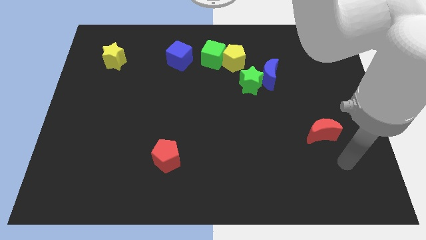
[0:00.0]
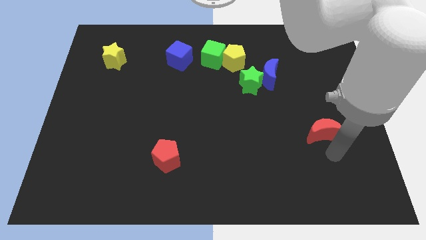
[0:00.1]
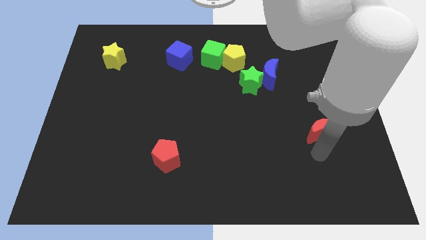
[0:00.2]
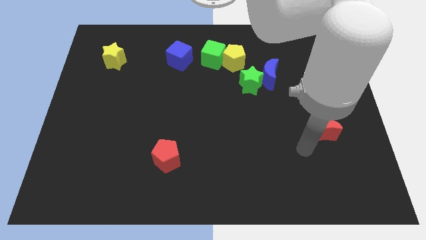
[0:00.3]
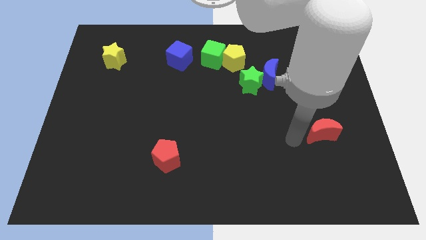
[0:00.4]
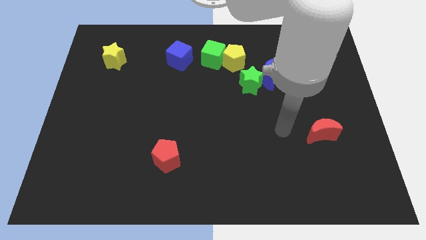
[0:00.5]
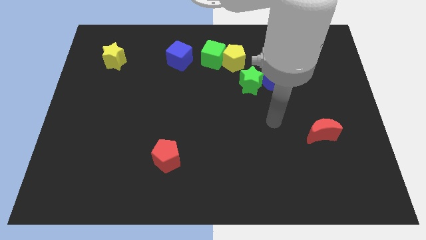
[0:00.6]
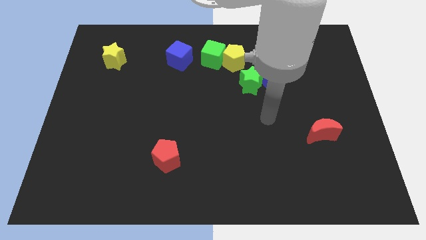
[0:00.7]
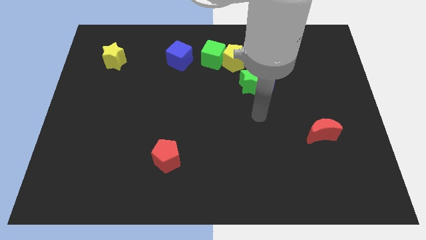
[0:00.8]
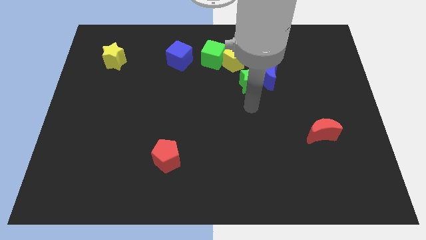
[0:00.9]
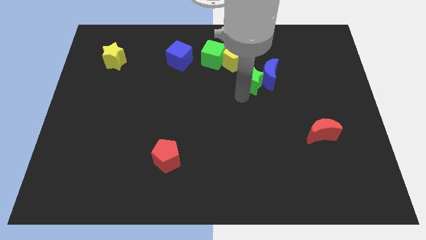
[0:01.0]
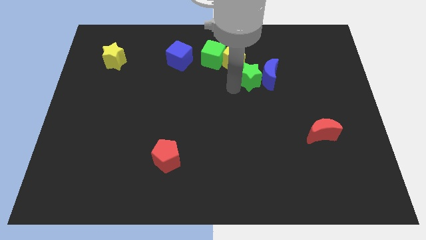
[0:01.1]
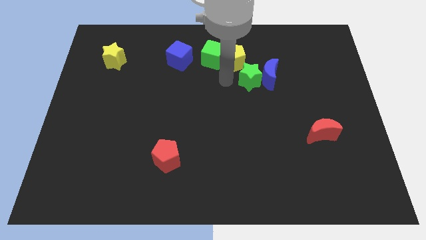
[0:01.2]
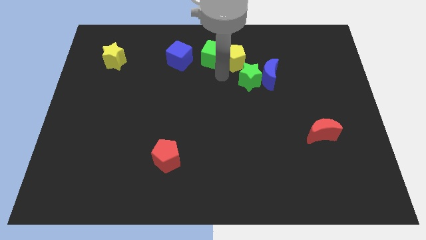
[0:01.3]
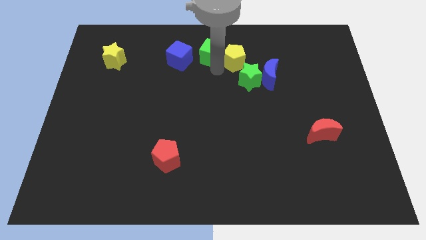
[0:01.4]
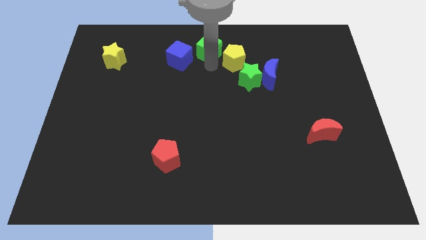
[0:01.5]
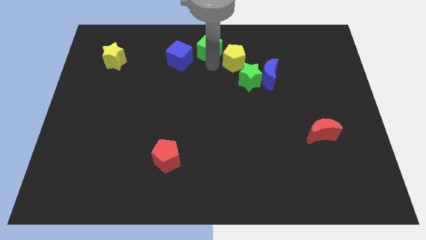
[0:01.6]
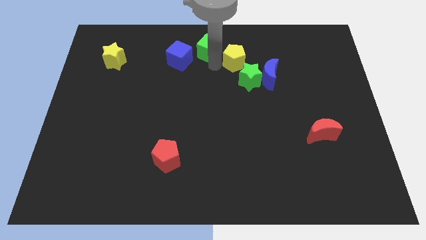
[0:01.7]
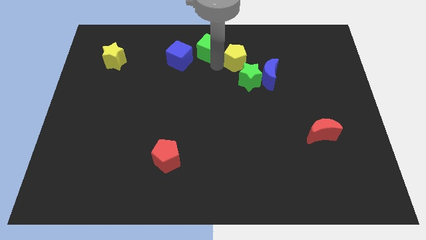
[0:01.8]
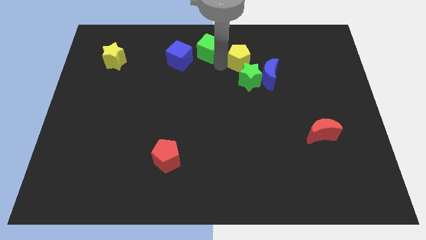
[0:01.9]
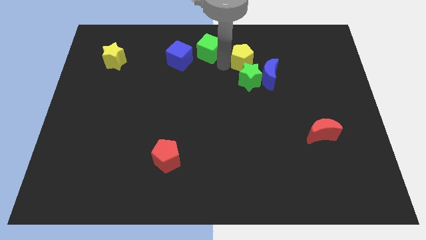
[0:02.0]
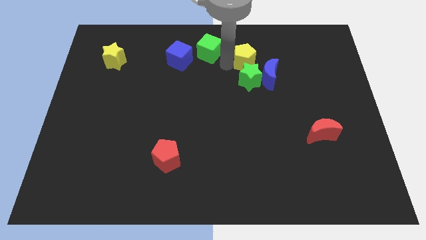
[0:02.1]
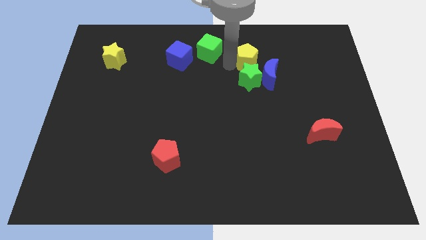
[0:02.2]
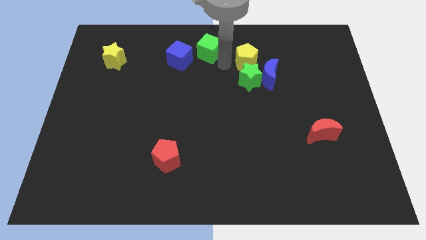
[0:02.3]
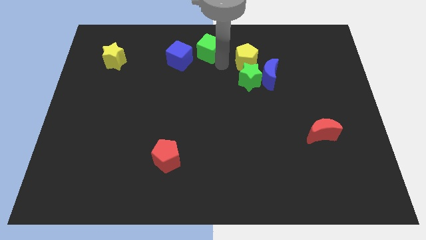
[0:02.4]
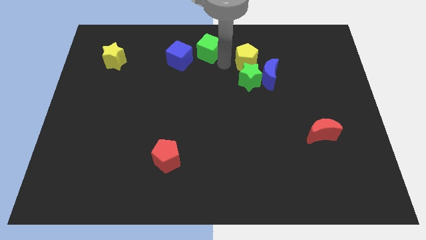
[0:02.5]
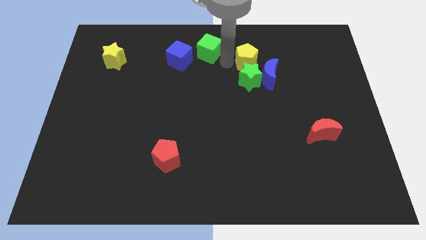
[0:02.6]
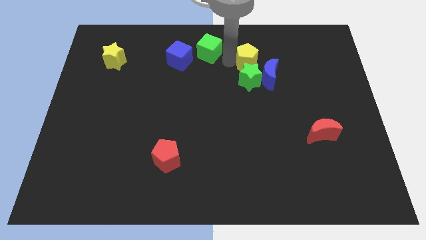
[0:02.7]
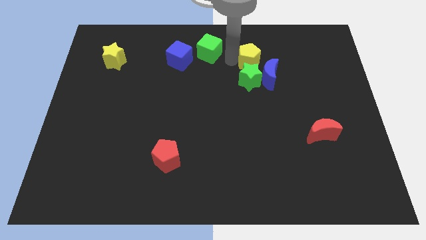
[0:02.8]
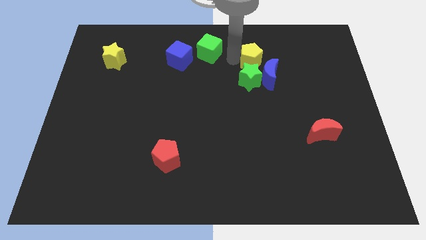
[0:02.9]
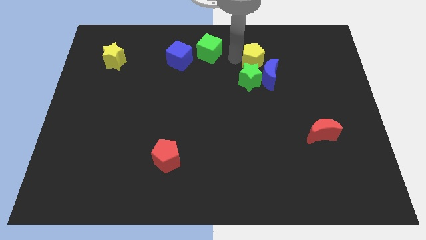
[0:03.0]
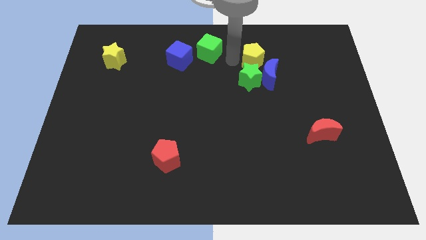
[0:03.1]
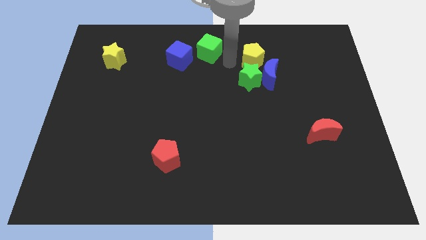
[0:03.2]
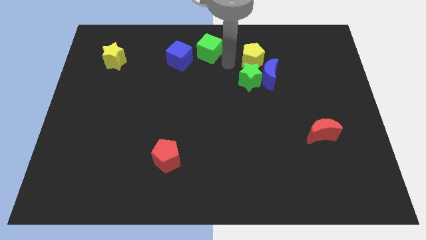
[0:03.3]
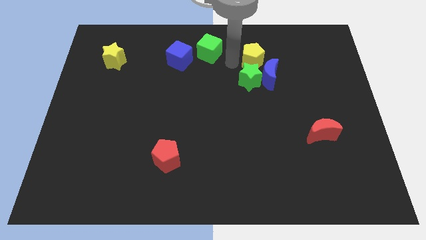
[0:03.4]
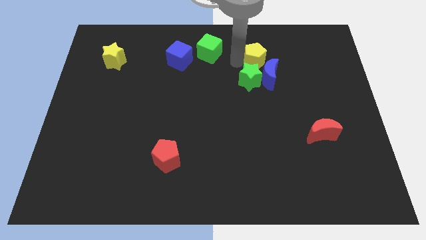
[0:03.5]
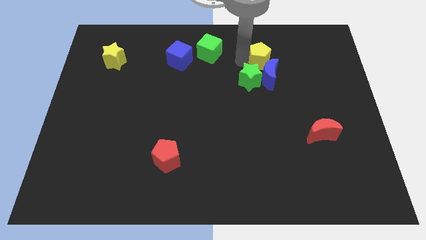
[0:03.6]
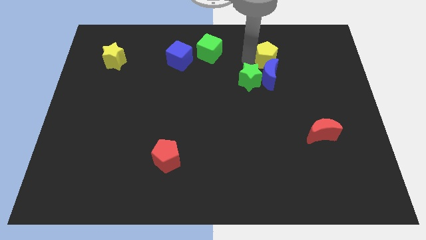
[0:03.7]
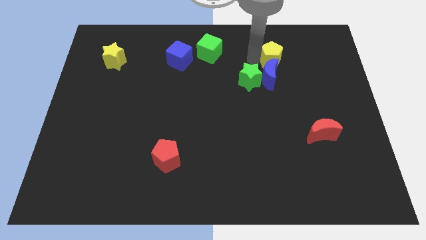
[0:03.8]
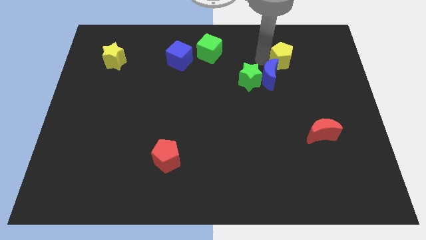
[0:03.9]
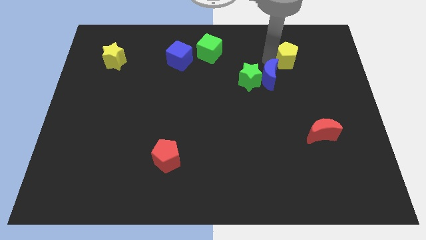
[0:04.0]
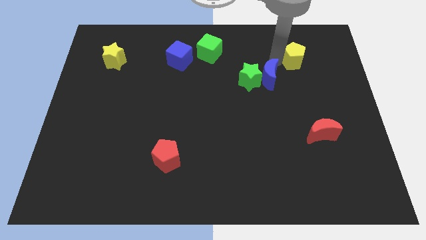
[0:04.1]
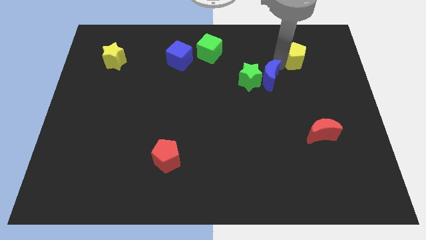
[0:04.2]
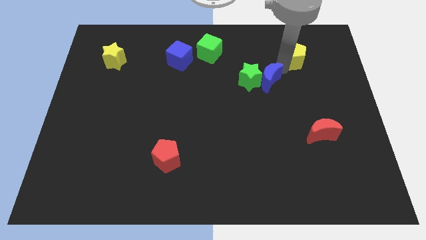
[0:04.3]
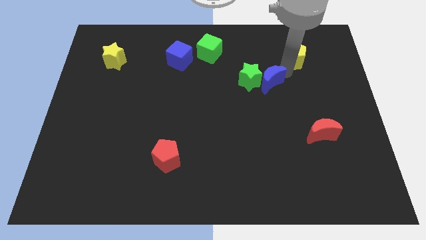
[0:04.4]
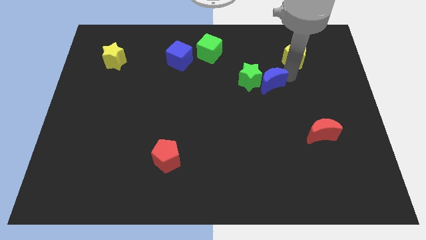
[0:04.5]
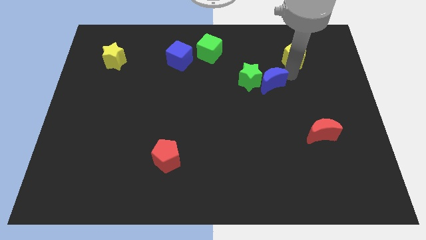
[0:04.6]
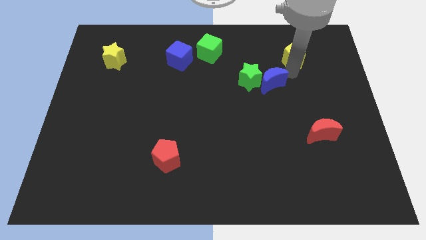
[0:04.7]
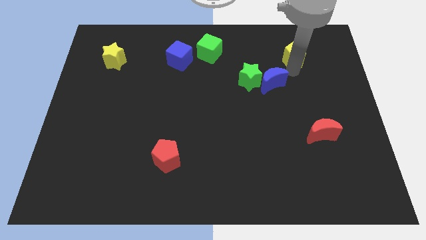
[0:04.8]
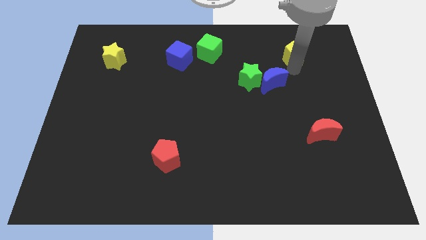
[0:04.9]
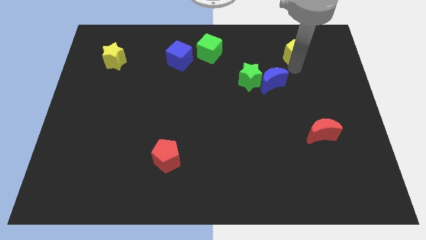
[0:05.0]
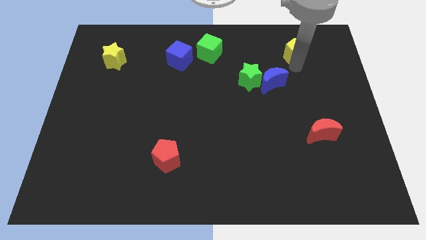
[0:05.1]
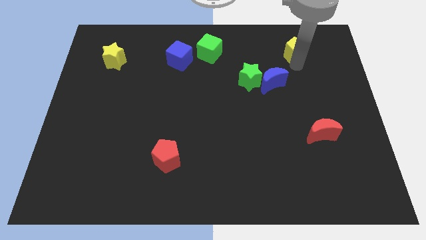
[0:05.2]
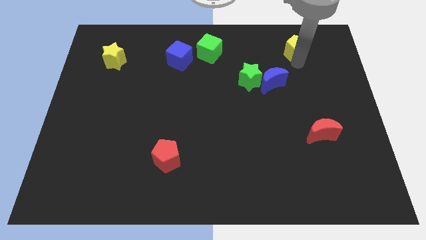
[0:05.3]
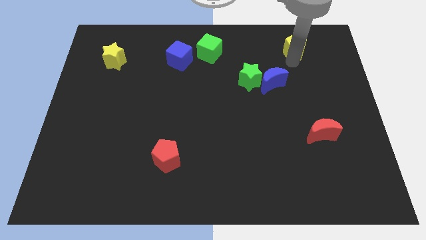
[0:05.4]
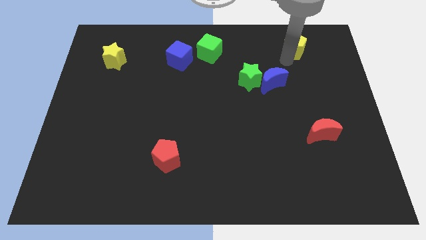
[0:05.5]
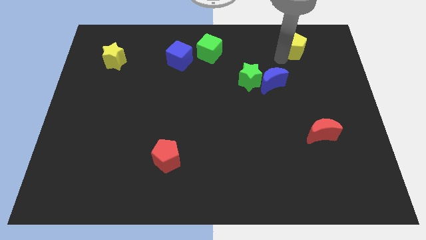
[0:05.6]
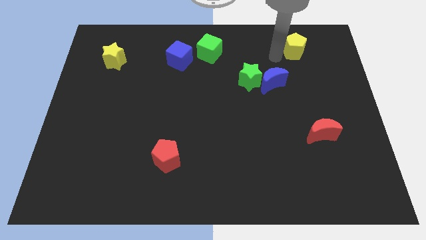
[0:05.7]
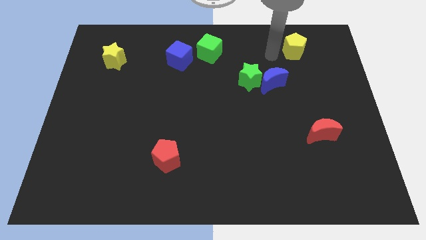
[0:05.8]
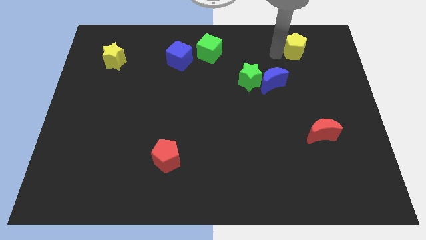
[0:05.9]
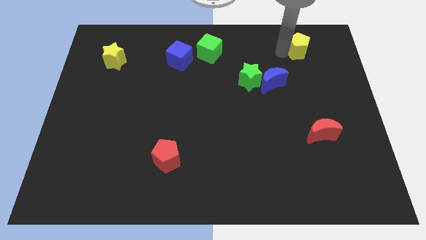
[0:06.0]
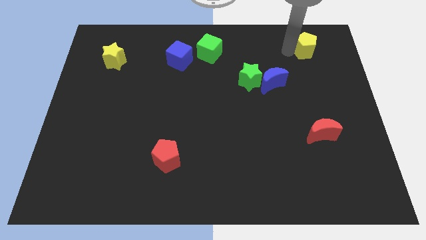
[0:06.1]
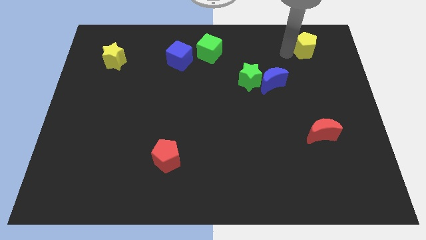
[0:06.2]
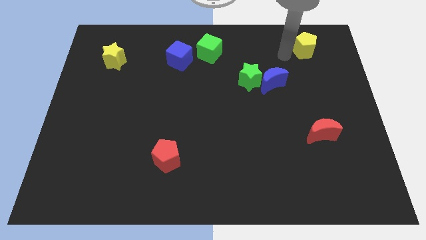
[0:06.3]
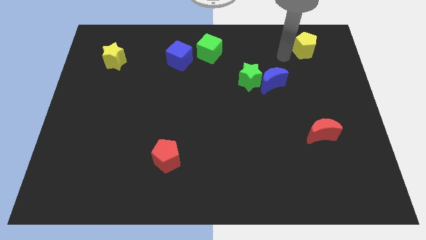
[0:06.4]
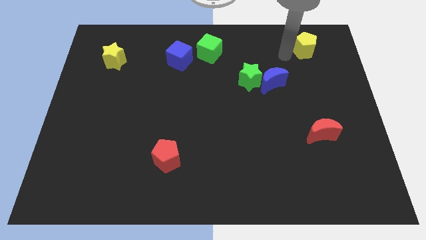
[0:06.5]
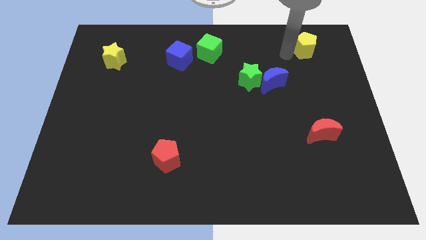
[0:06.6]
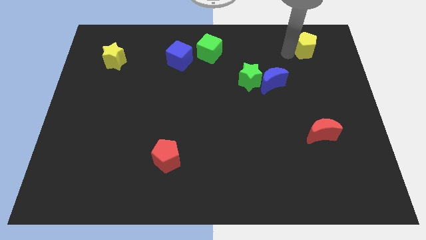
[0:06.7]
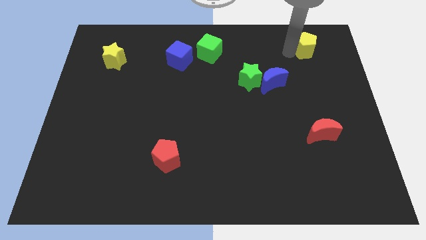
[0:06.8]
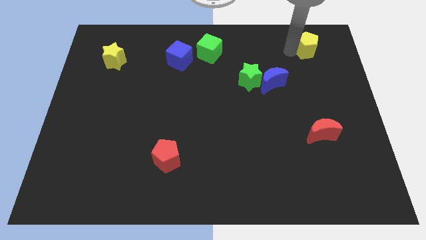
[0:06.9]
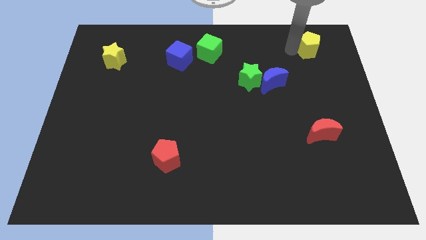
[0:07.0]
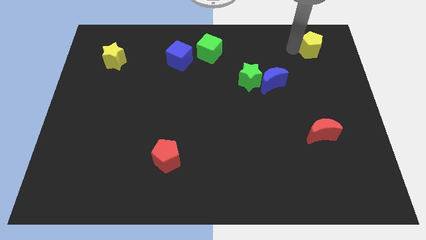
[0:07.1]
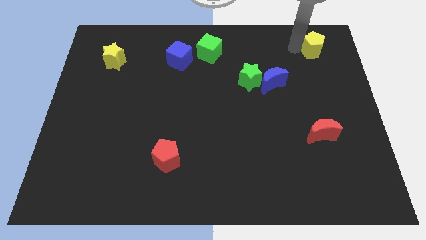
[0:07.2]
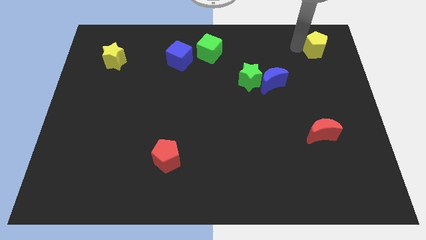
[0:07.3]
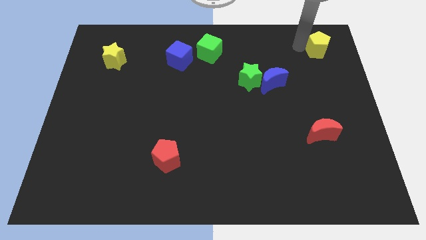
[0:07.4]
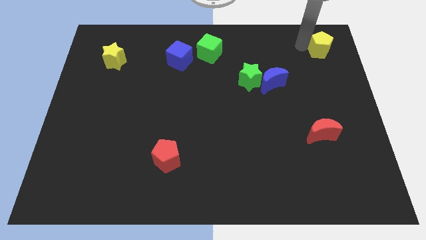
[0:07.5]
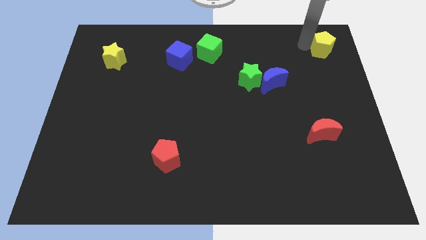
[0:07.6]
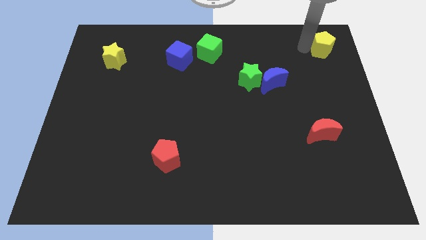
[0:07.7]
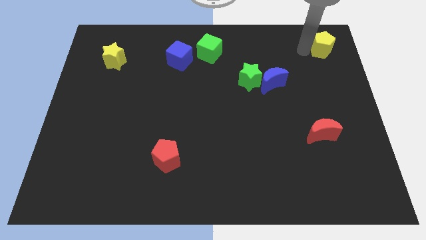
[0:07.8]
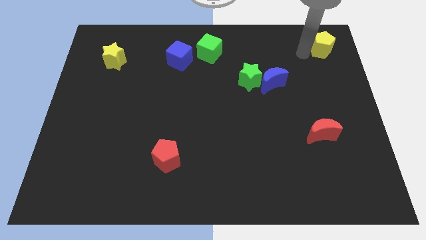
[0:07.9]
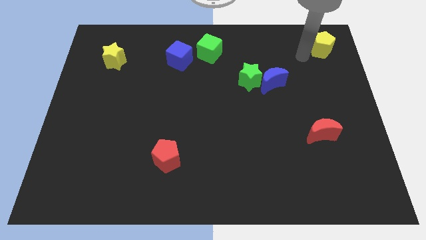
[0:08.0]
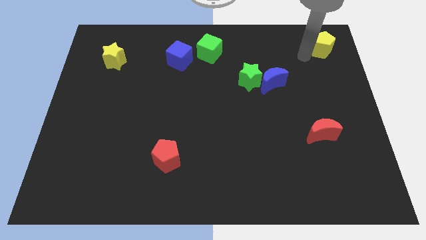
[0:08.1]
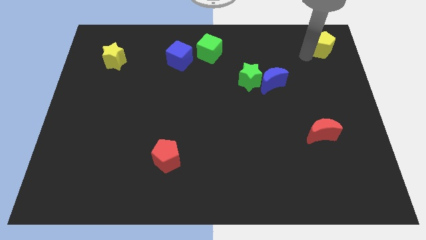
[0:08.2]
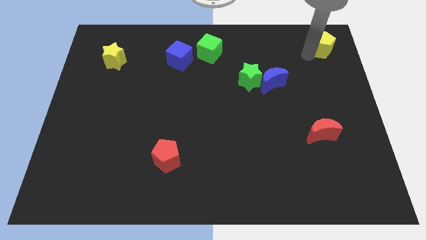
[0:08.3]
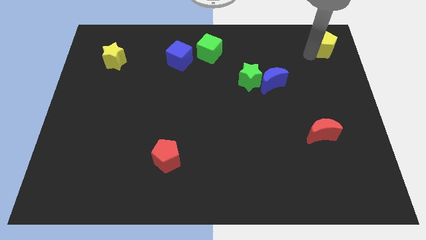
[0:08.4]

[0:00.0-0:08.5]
slide the yellow pentagon to the upper right corner
